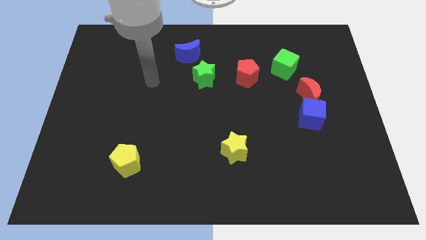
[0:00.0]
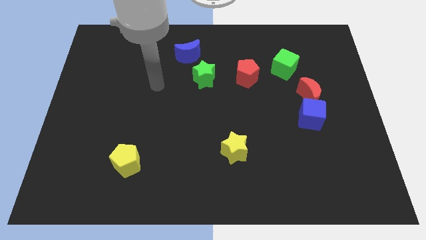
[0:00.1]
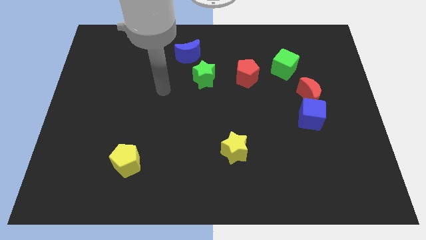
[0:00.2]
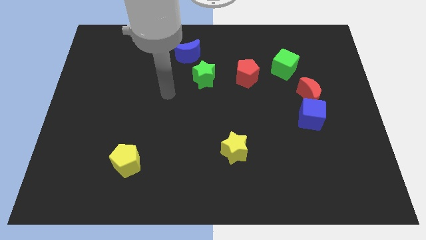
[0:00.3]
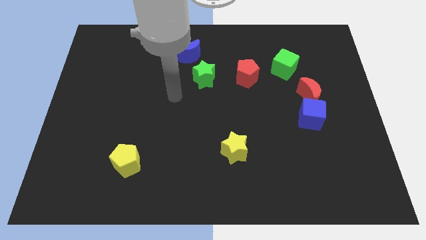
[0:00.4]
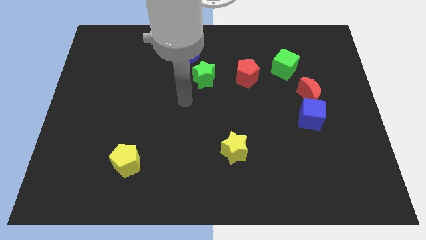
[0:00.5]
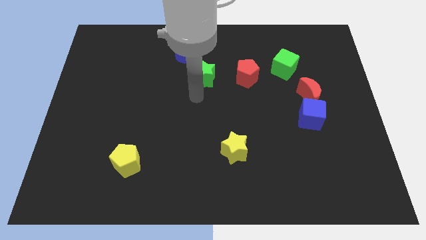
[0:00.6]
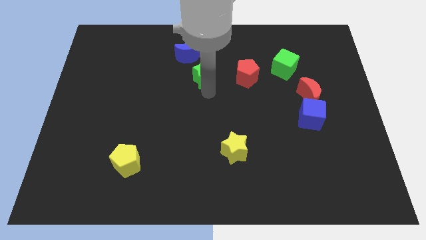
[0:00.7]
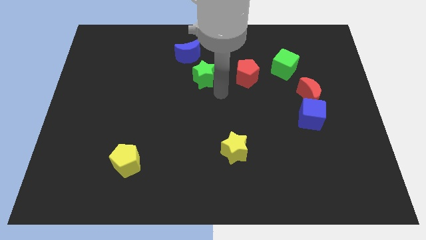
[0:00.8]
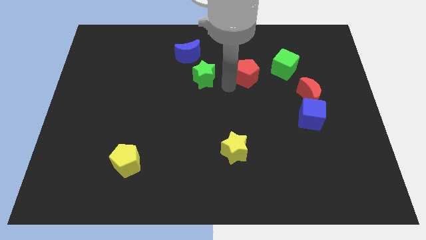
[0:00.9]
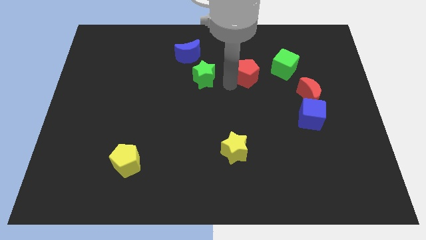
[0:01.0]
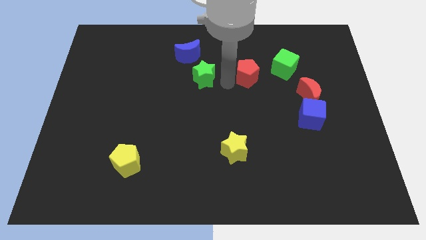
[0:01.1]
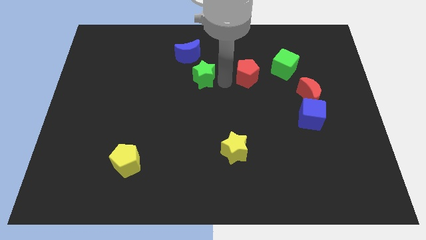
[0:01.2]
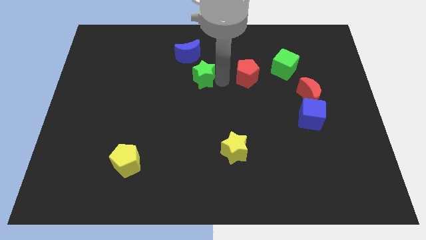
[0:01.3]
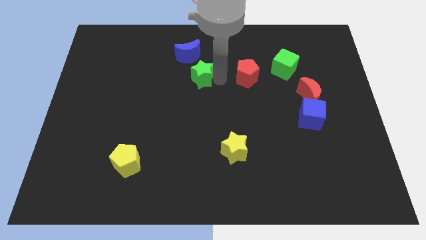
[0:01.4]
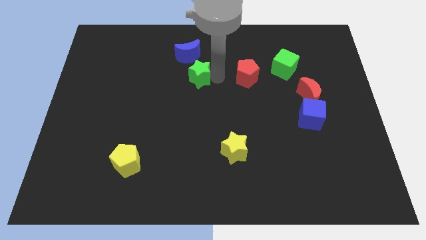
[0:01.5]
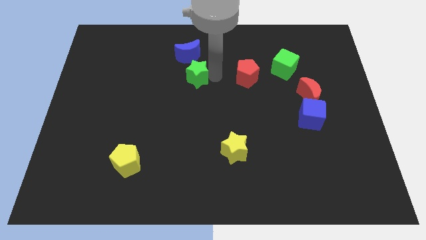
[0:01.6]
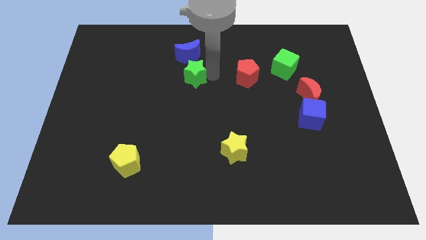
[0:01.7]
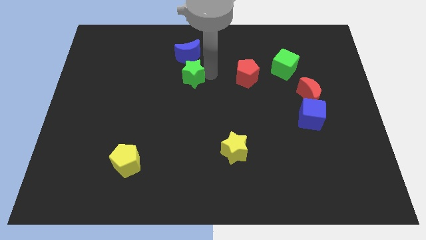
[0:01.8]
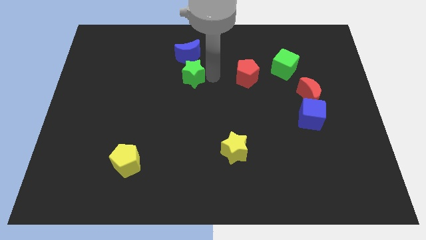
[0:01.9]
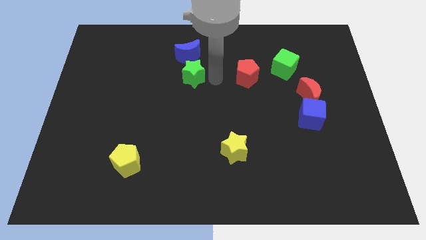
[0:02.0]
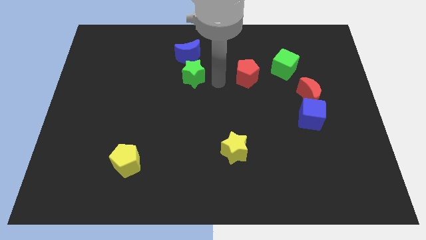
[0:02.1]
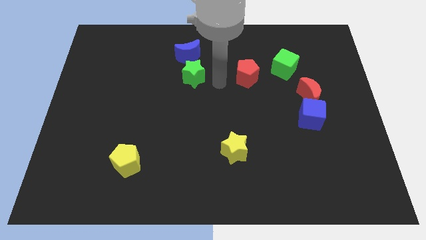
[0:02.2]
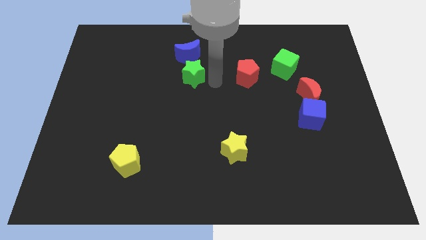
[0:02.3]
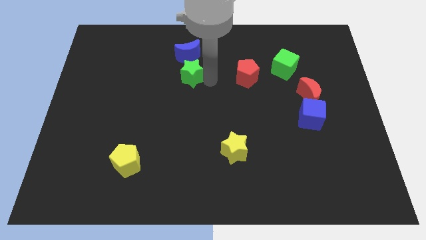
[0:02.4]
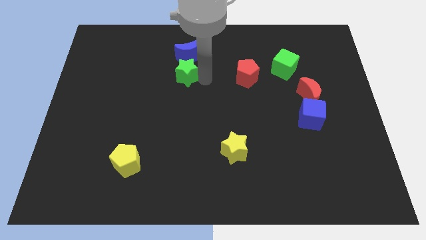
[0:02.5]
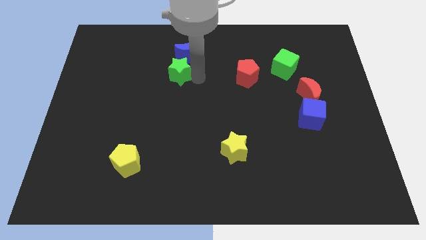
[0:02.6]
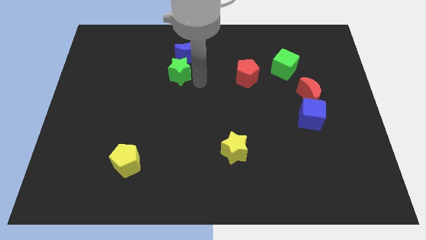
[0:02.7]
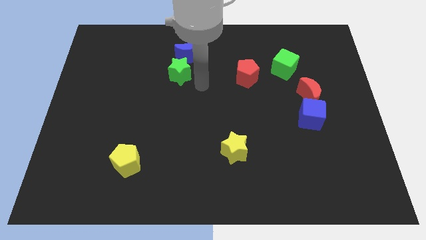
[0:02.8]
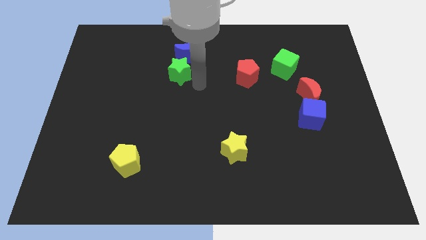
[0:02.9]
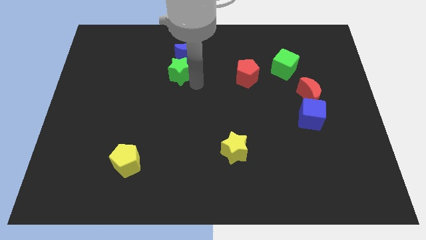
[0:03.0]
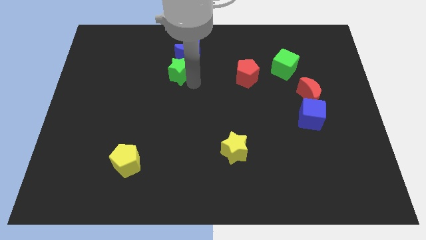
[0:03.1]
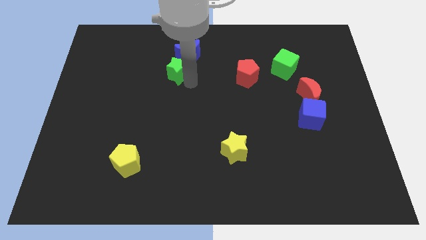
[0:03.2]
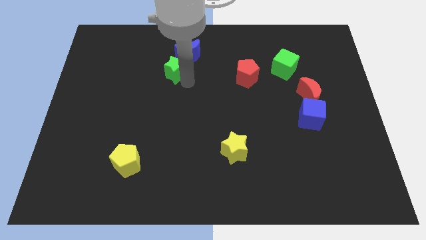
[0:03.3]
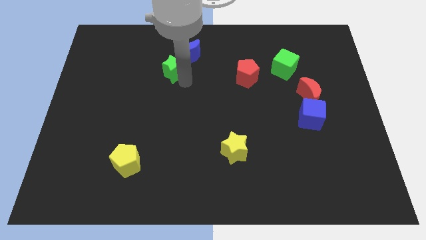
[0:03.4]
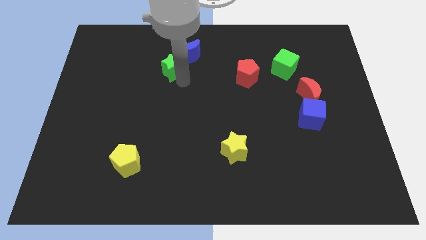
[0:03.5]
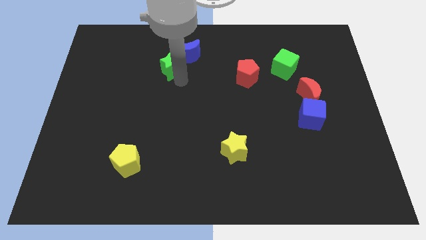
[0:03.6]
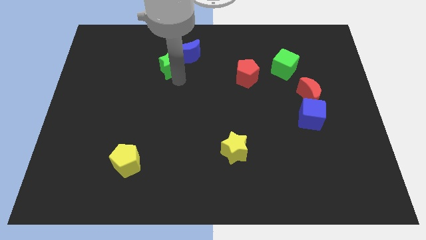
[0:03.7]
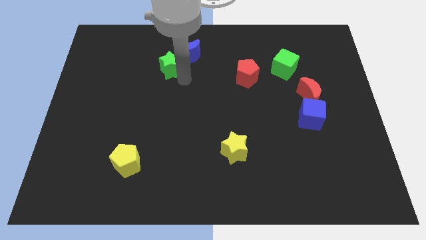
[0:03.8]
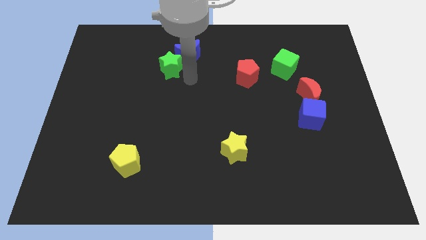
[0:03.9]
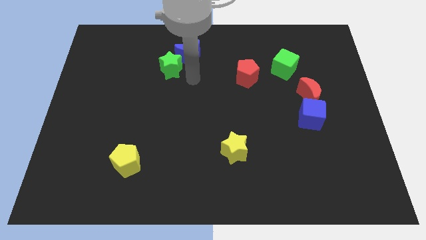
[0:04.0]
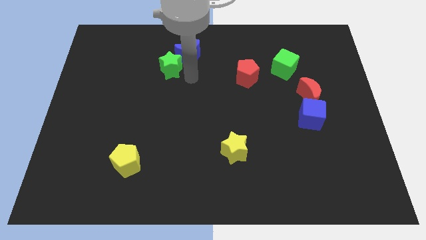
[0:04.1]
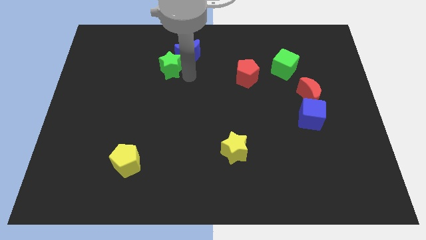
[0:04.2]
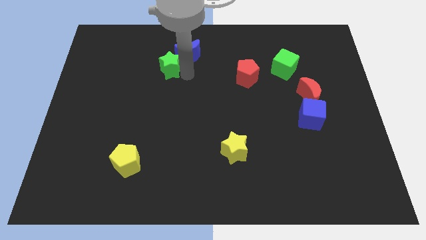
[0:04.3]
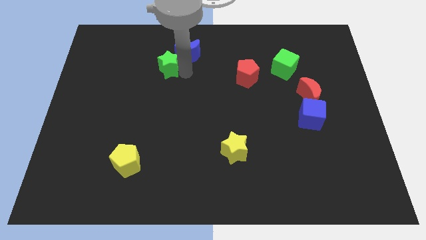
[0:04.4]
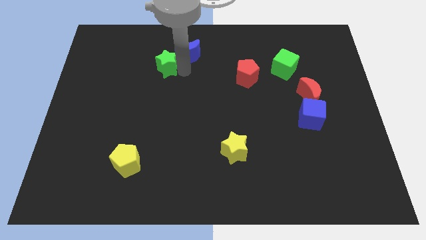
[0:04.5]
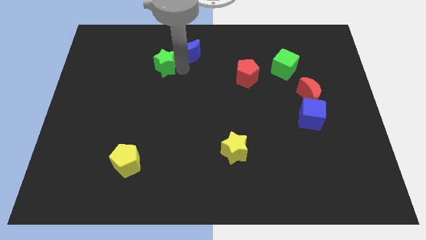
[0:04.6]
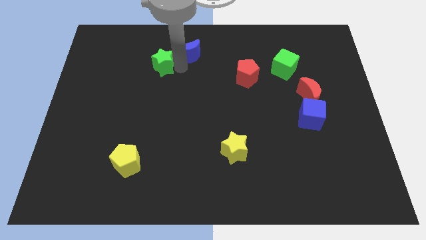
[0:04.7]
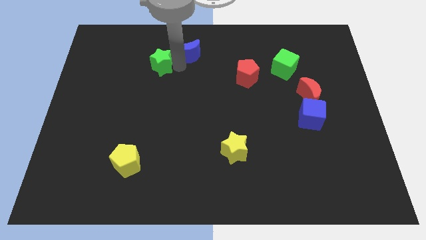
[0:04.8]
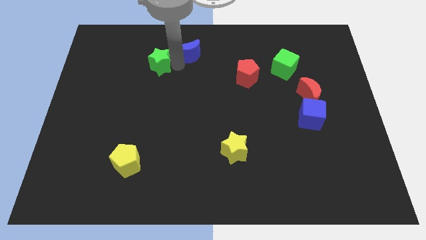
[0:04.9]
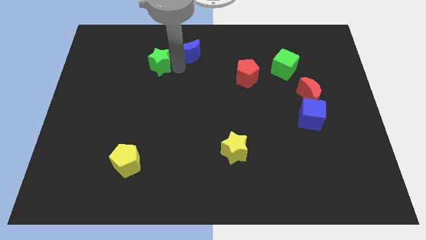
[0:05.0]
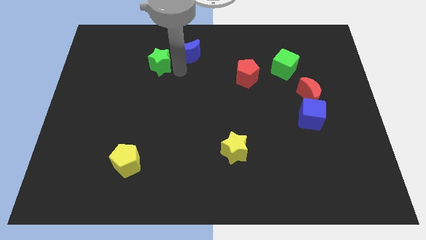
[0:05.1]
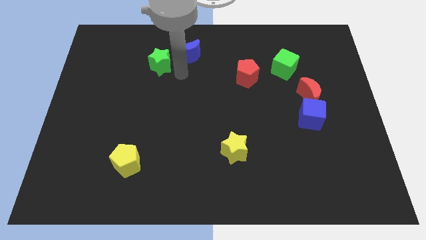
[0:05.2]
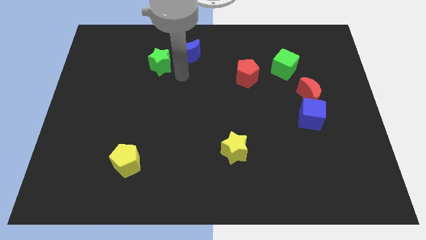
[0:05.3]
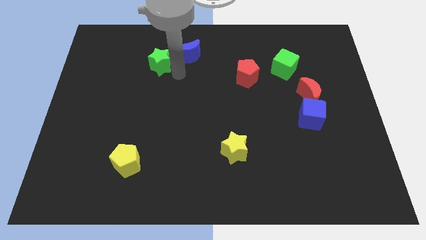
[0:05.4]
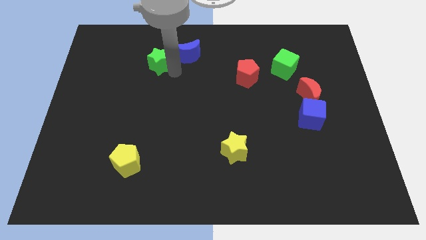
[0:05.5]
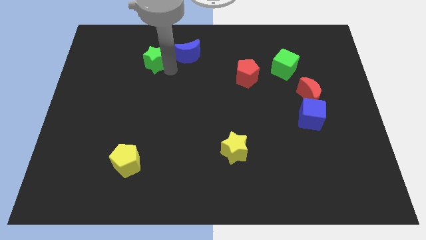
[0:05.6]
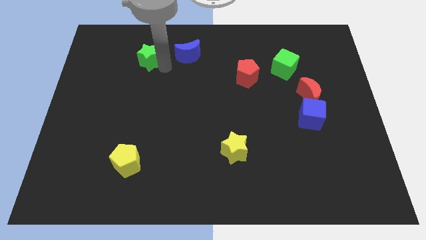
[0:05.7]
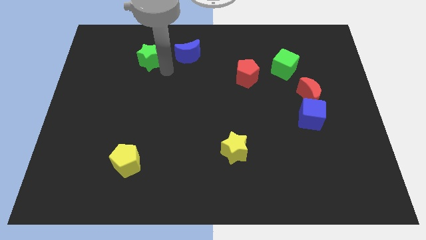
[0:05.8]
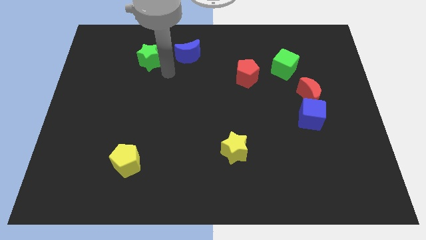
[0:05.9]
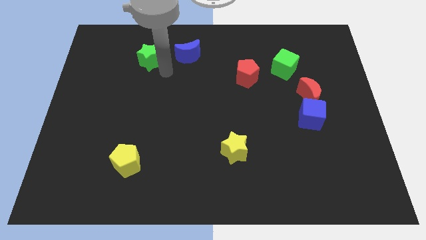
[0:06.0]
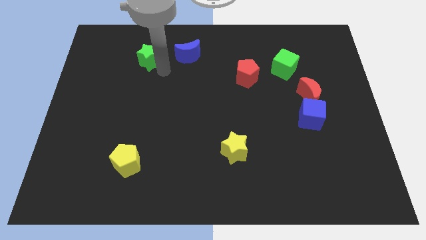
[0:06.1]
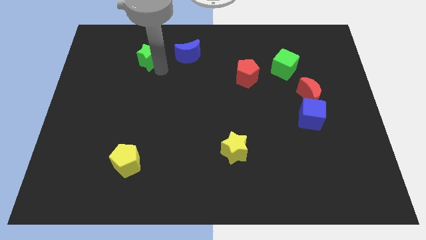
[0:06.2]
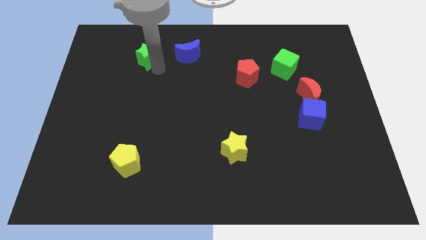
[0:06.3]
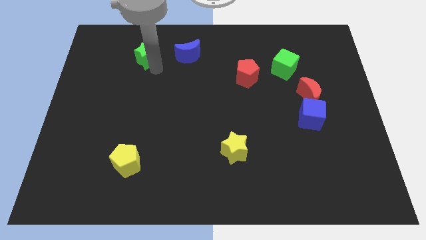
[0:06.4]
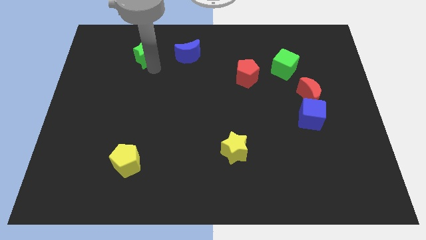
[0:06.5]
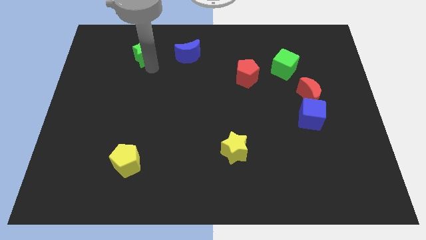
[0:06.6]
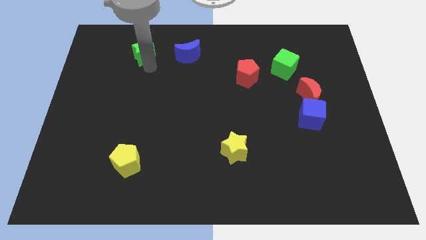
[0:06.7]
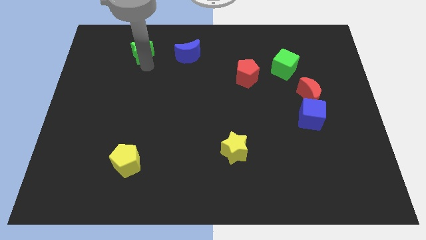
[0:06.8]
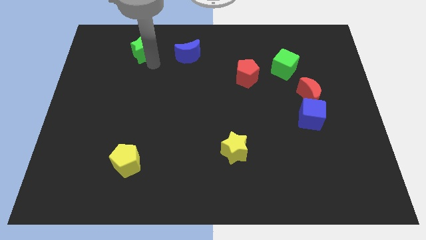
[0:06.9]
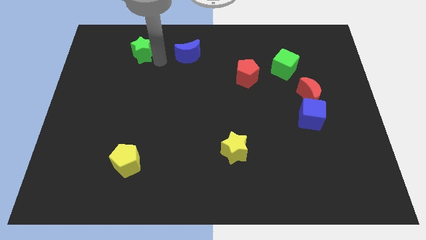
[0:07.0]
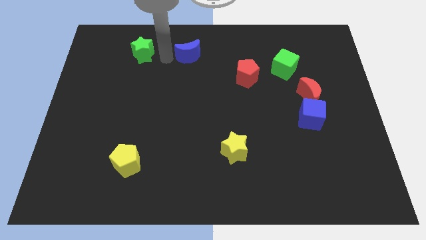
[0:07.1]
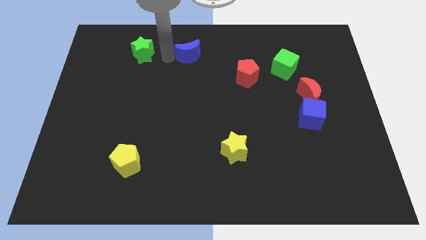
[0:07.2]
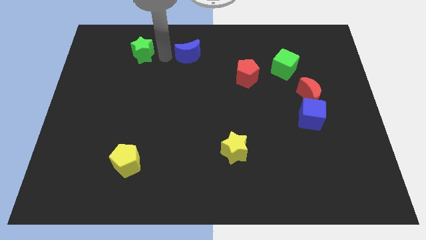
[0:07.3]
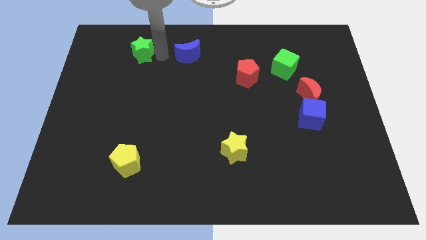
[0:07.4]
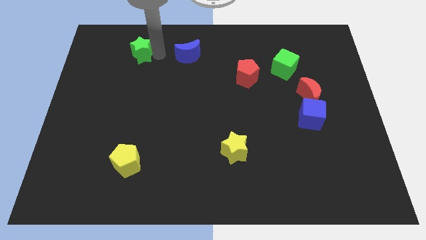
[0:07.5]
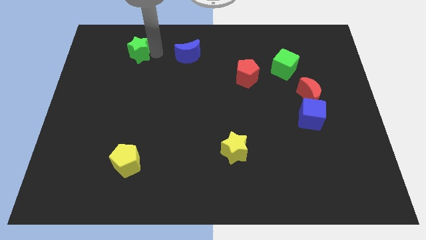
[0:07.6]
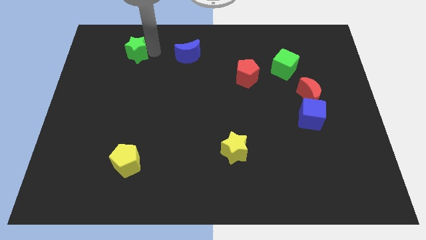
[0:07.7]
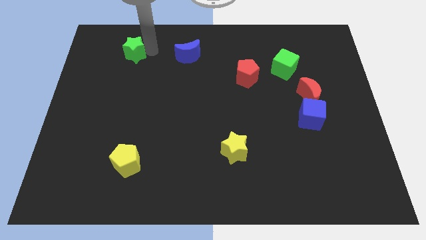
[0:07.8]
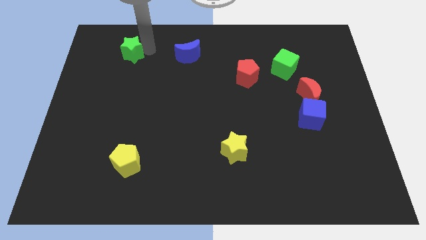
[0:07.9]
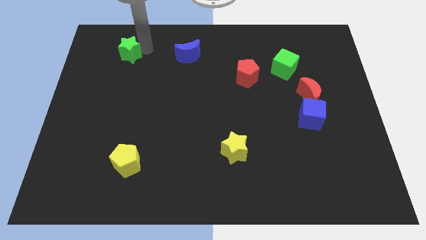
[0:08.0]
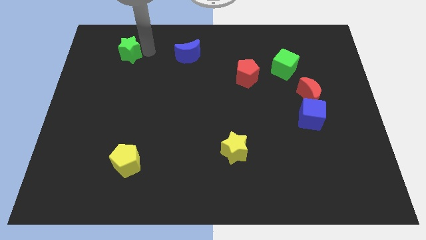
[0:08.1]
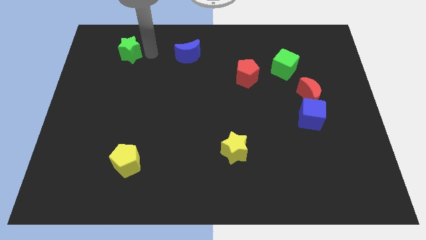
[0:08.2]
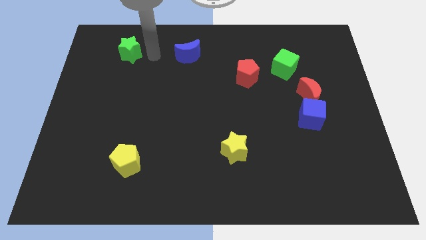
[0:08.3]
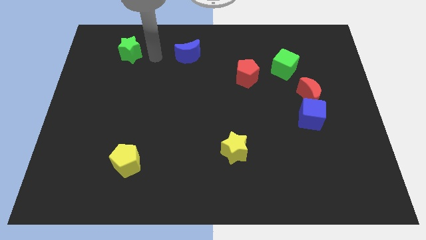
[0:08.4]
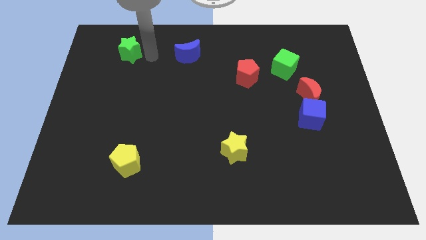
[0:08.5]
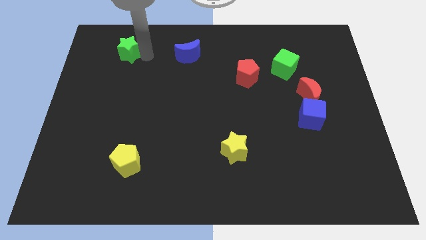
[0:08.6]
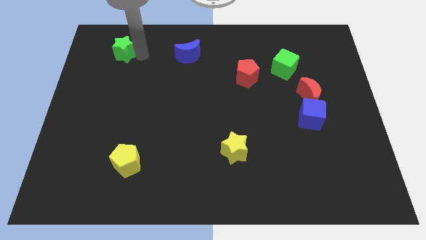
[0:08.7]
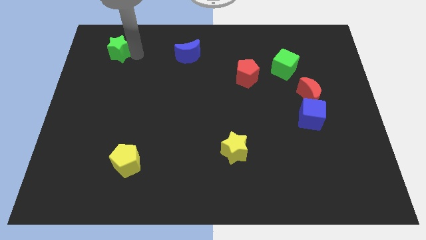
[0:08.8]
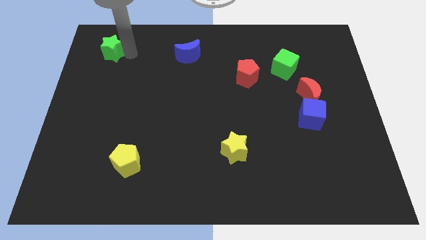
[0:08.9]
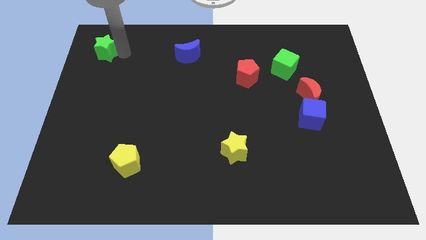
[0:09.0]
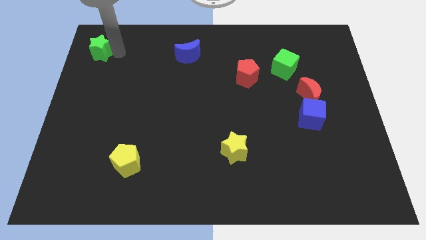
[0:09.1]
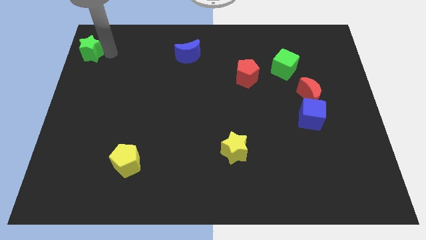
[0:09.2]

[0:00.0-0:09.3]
put the green star to the top left of the board
